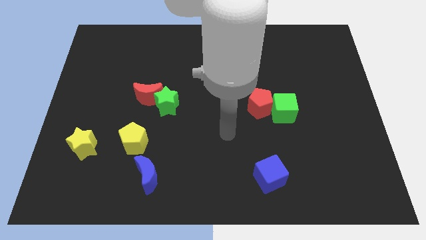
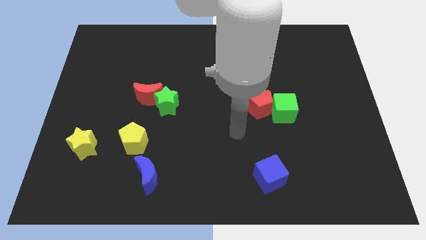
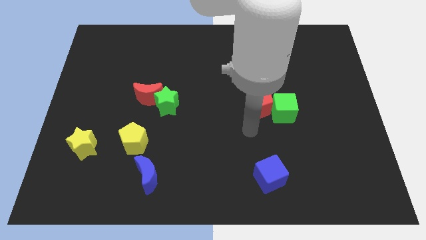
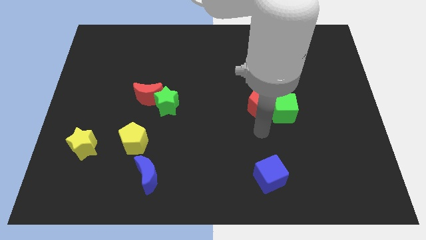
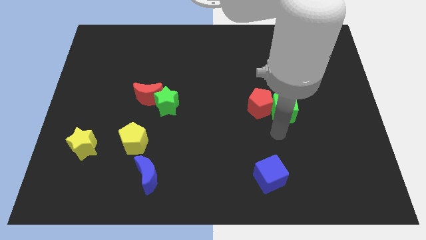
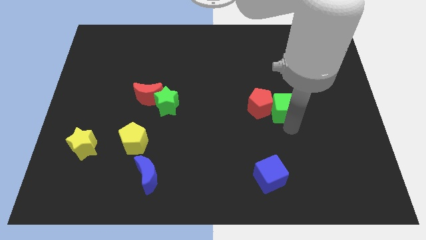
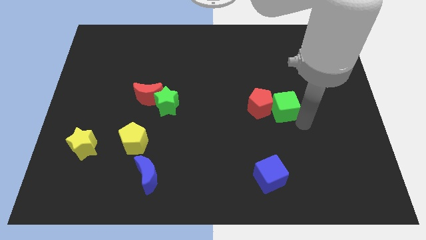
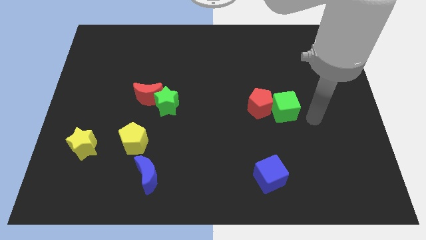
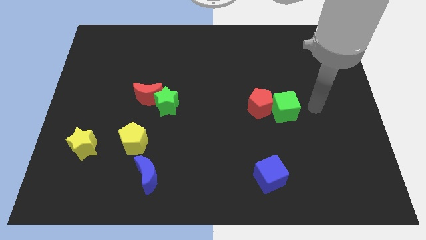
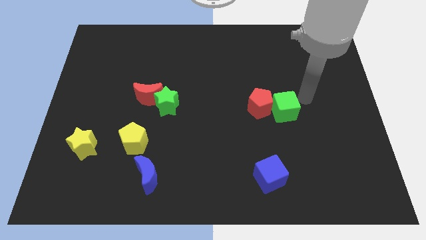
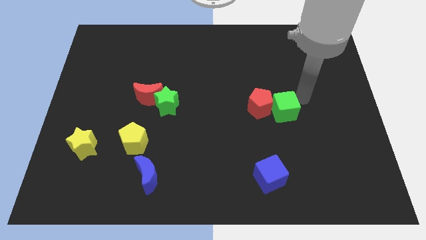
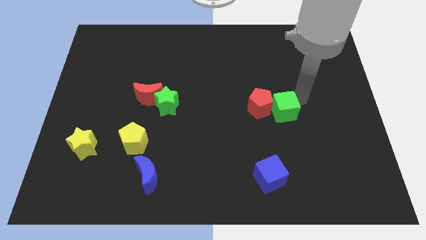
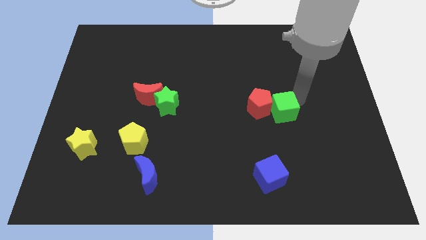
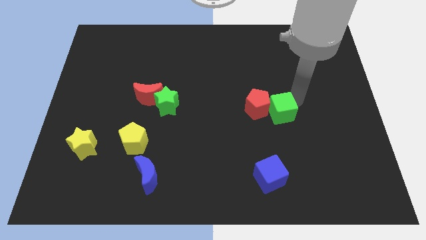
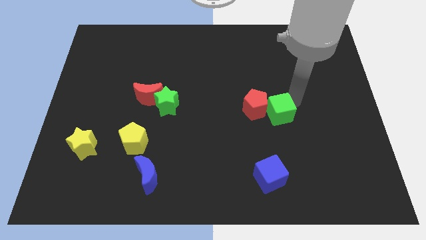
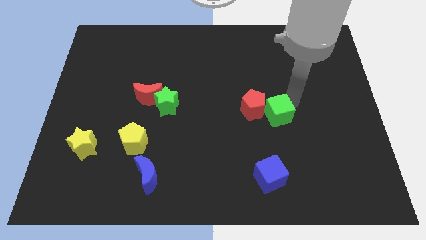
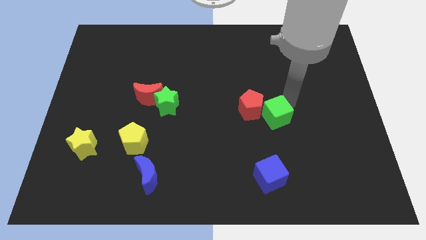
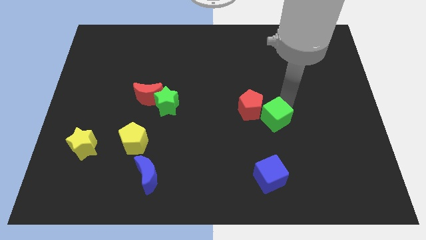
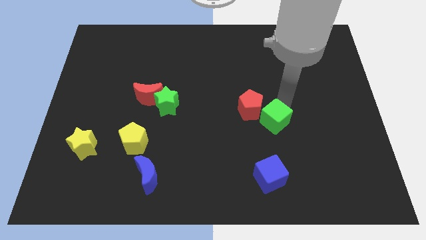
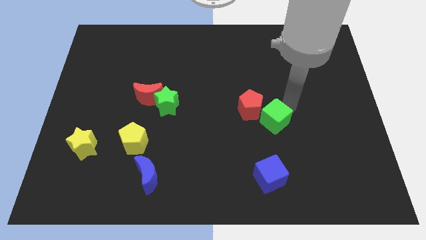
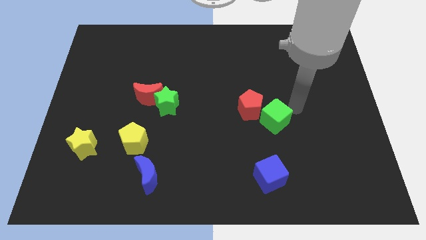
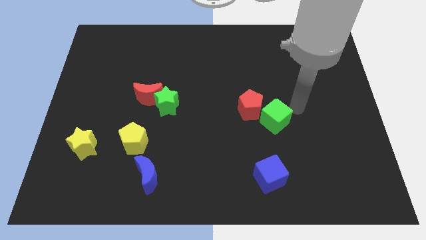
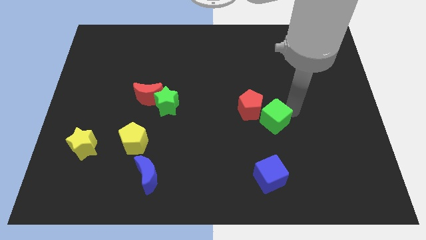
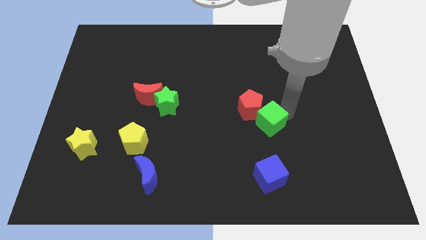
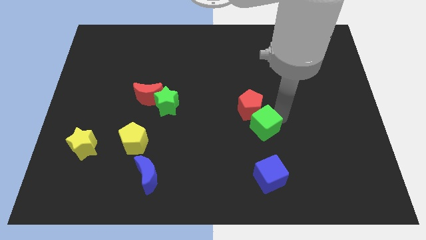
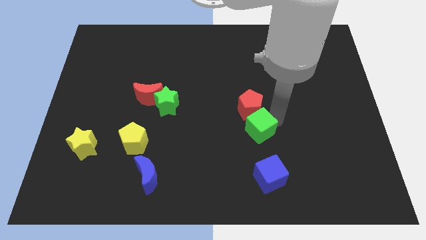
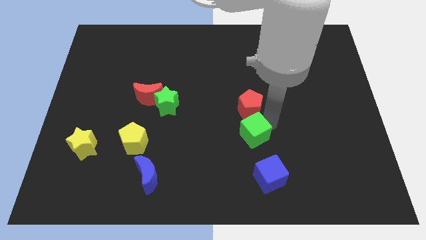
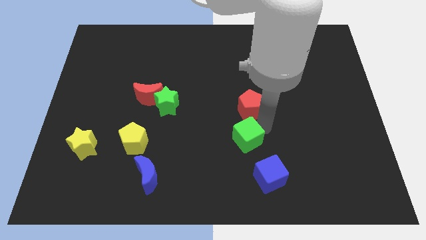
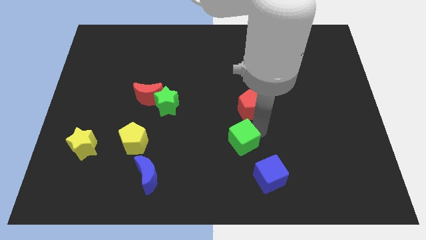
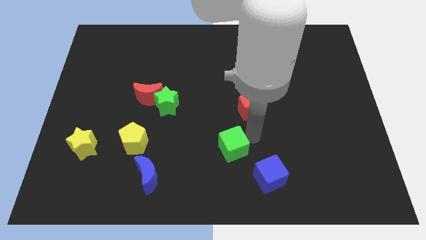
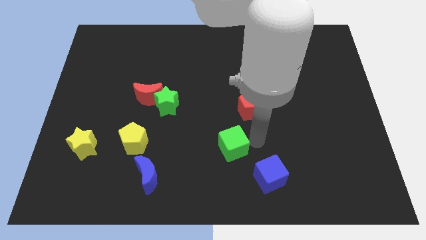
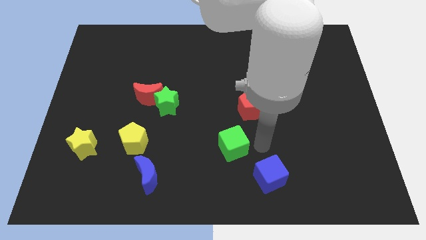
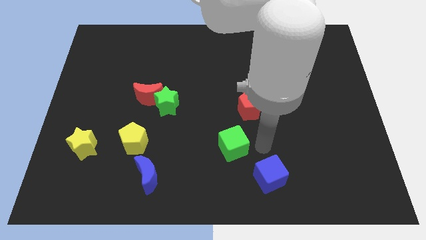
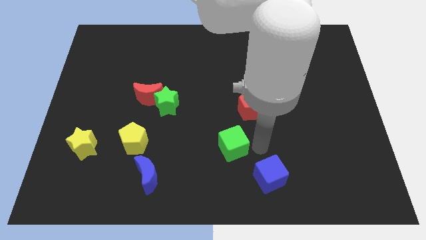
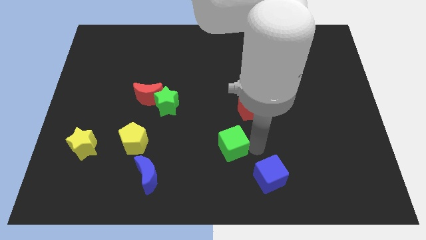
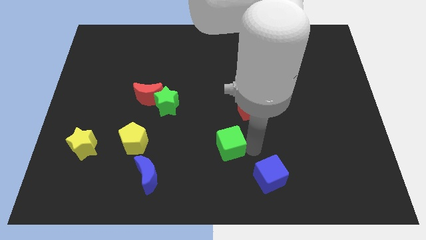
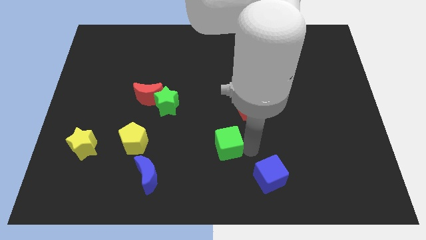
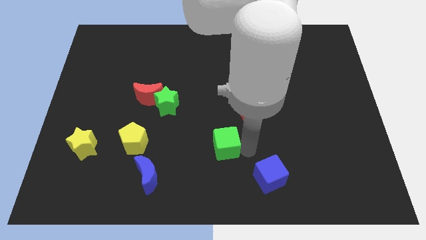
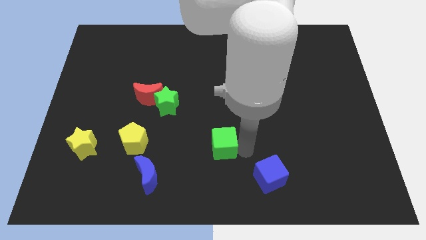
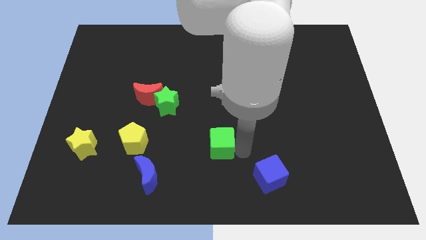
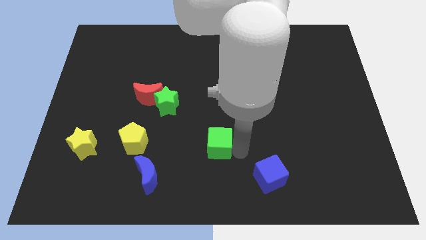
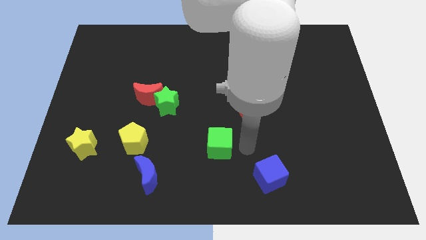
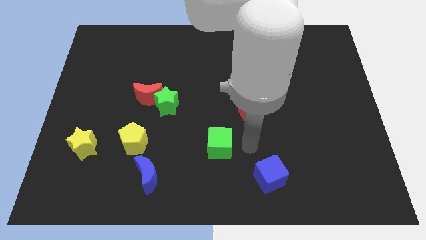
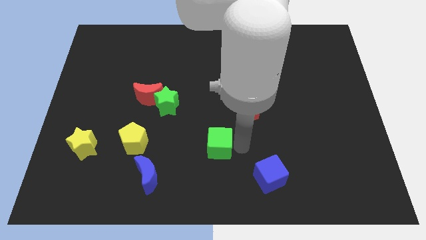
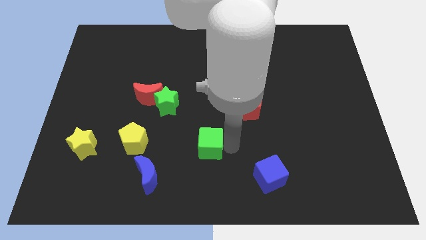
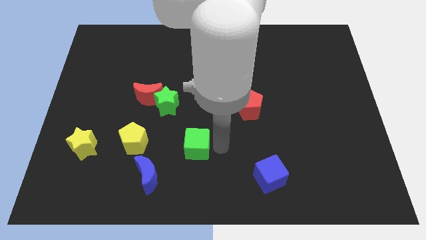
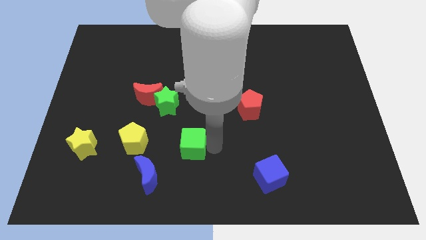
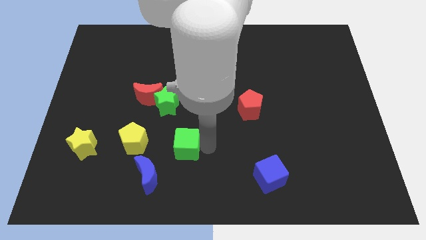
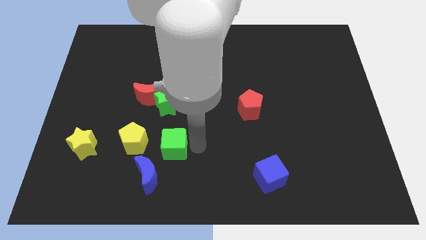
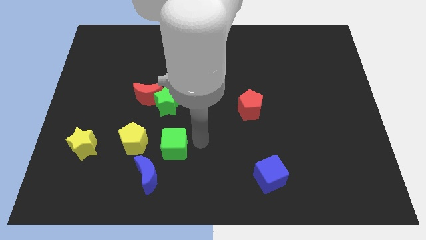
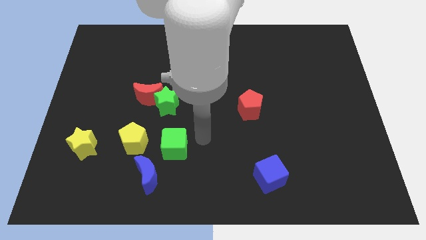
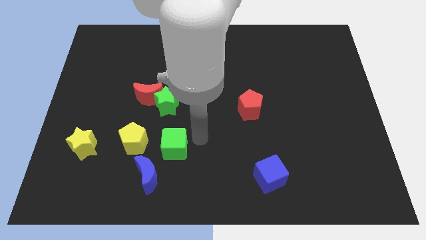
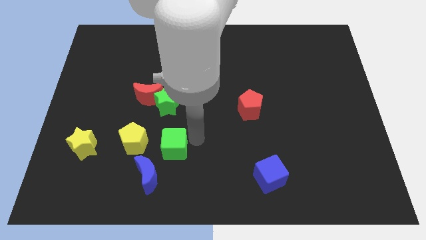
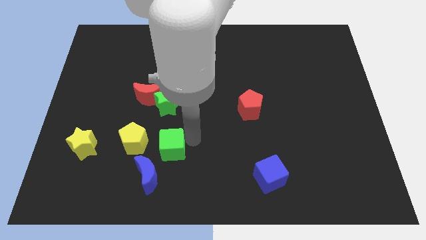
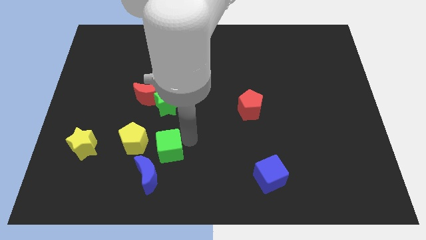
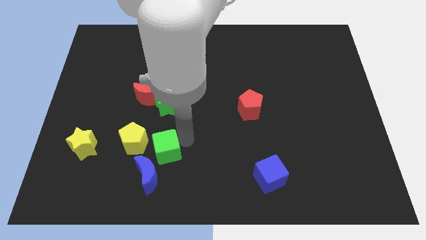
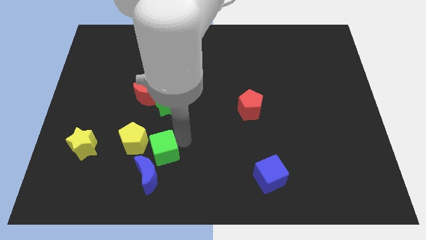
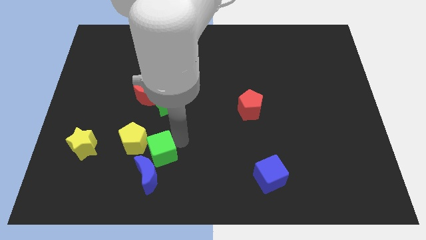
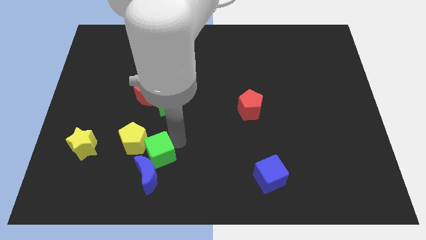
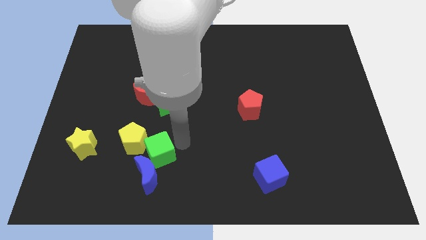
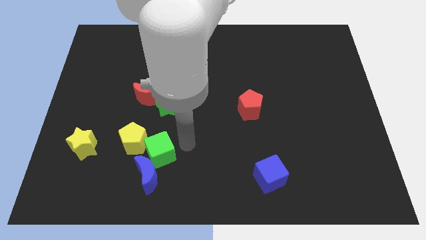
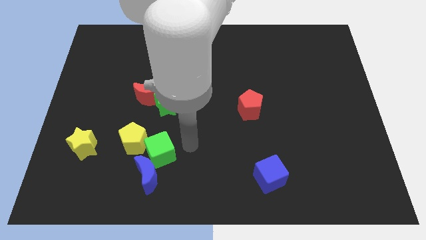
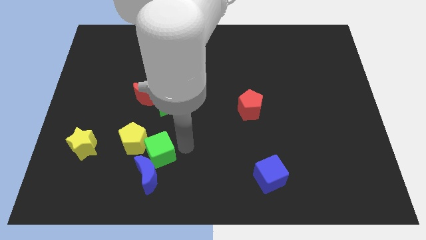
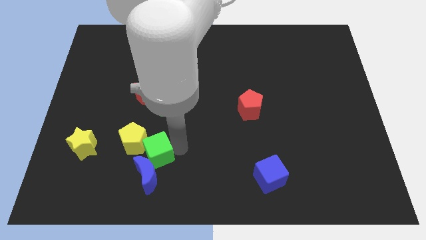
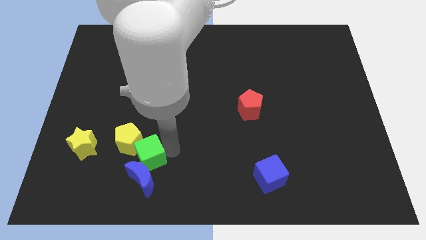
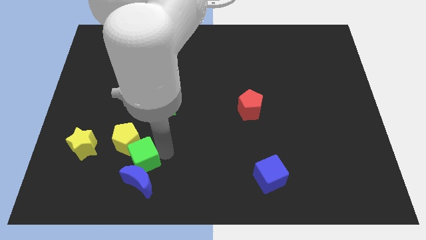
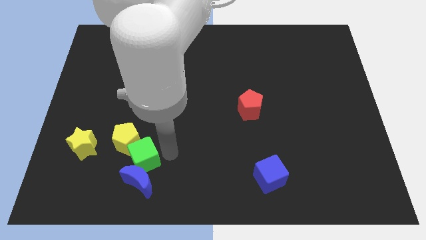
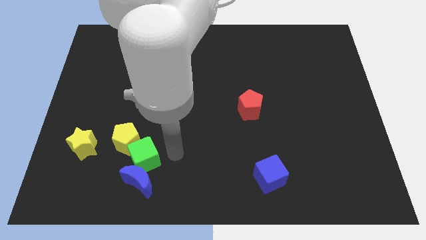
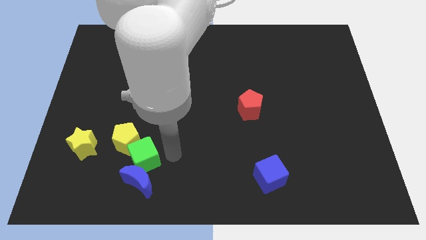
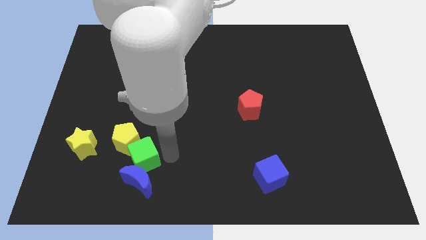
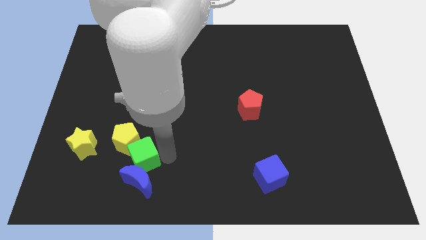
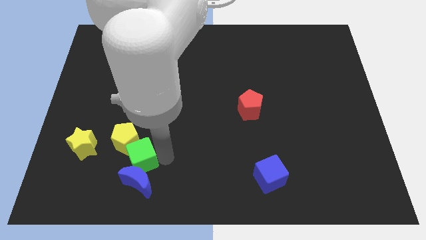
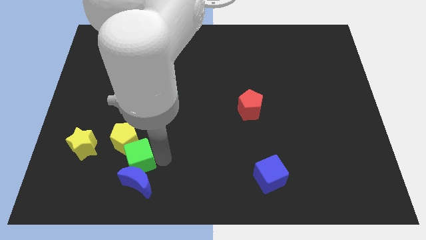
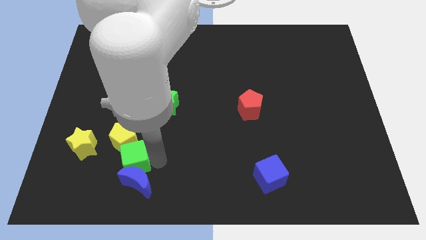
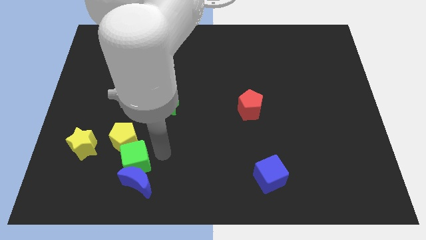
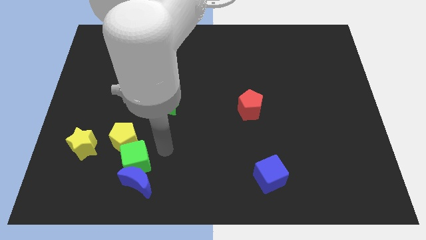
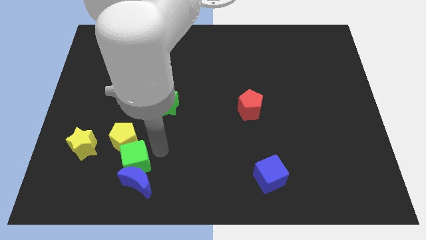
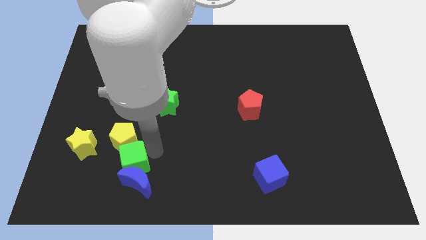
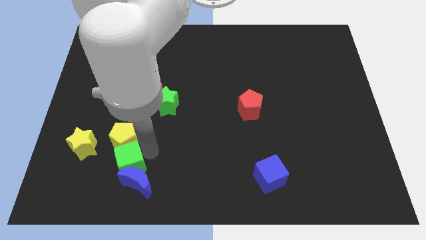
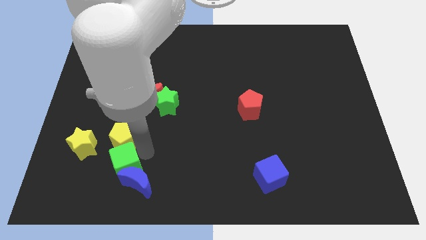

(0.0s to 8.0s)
push the green cube to the left of the blue moon
